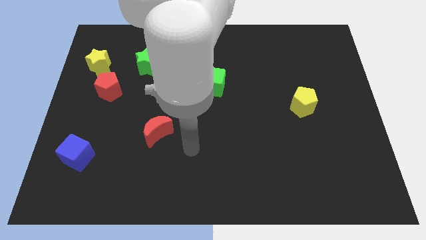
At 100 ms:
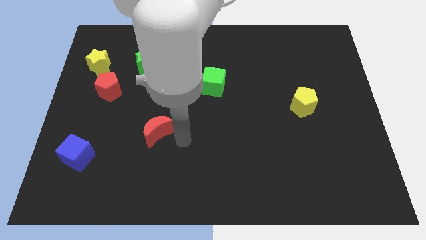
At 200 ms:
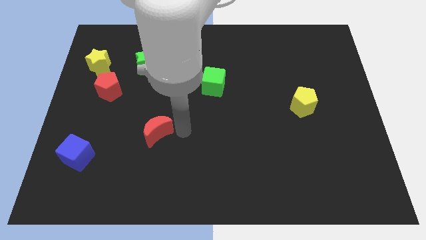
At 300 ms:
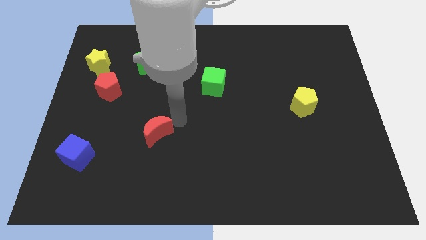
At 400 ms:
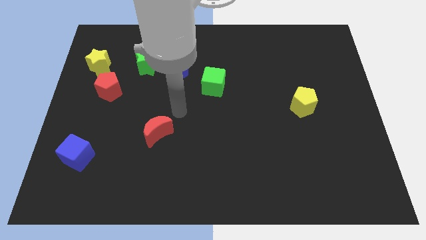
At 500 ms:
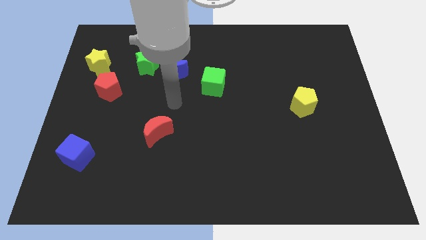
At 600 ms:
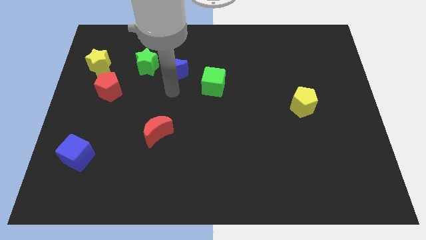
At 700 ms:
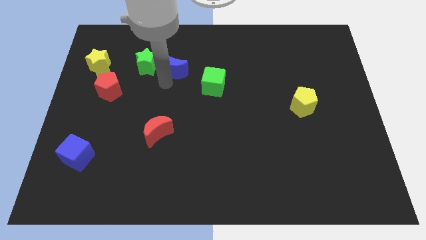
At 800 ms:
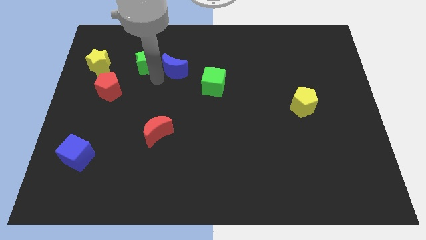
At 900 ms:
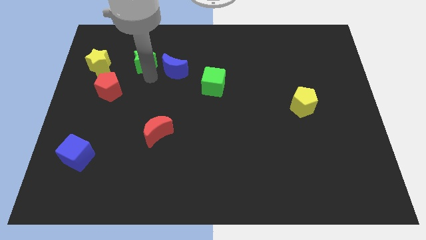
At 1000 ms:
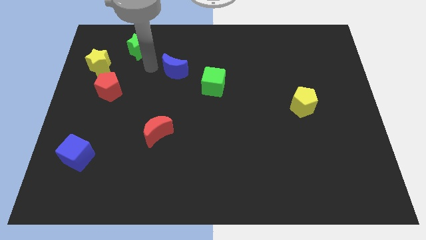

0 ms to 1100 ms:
separate the blue moon from the green star

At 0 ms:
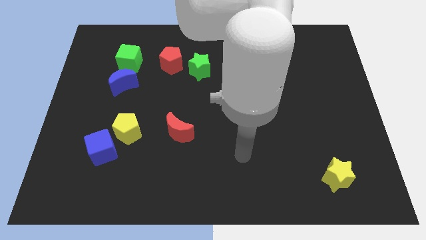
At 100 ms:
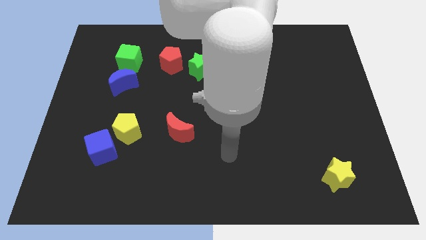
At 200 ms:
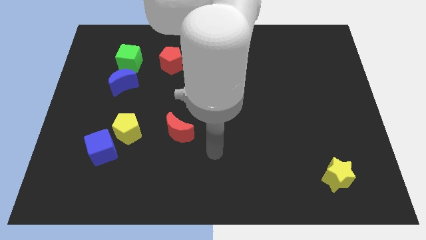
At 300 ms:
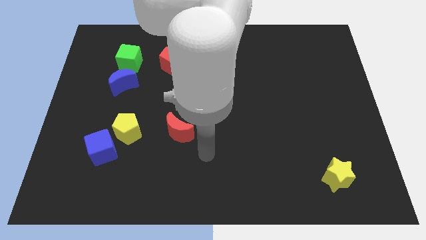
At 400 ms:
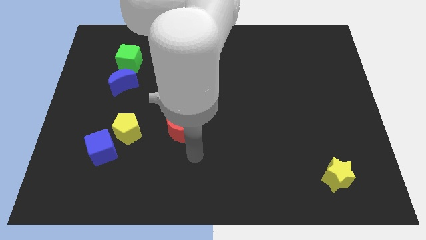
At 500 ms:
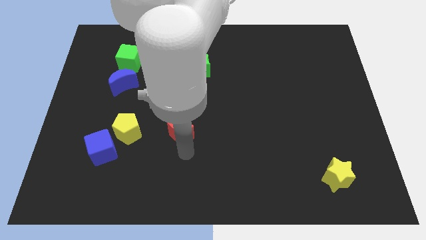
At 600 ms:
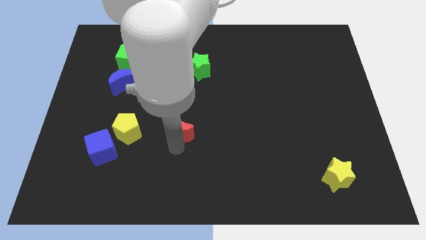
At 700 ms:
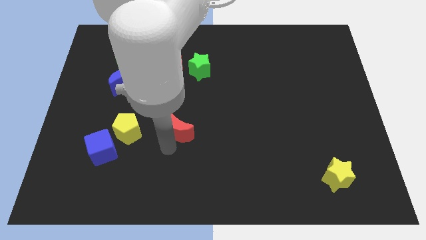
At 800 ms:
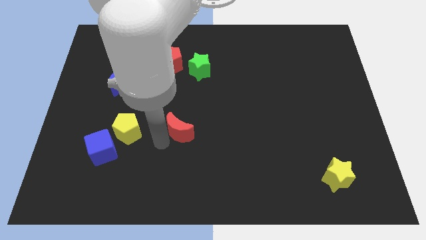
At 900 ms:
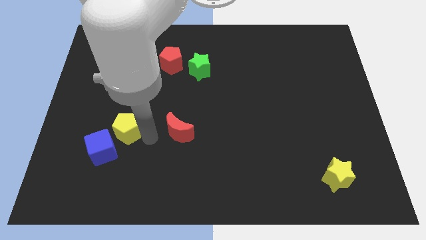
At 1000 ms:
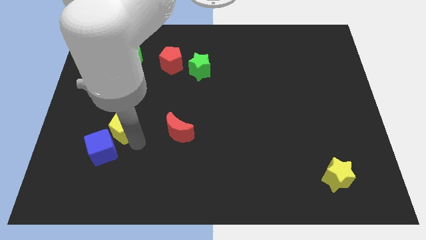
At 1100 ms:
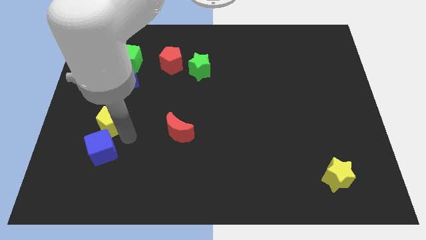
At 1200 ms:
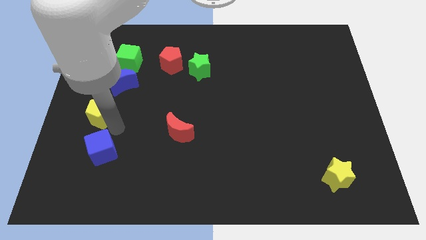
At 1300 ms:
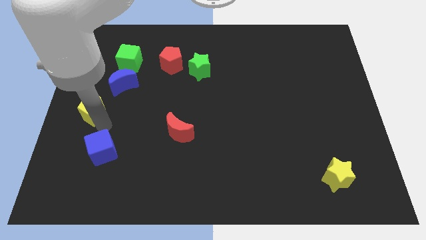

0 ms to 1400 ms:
move the blue cube away from the yellow pentagon

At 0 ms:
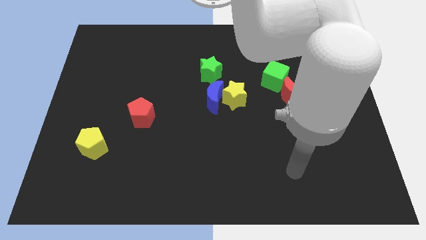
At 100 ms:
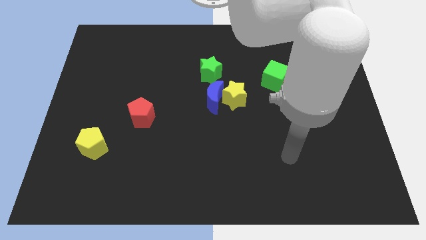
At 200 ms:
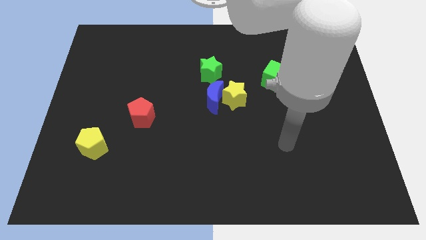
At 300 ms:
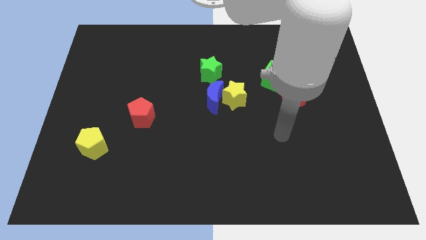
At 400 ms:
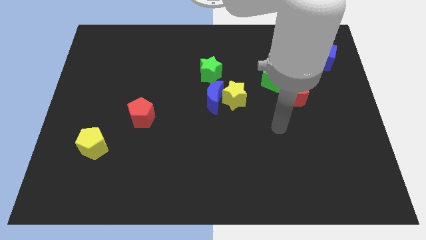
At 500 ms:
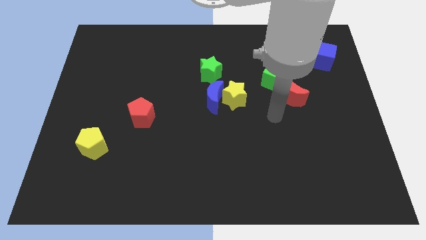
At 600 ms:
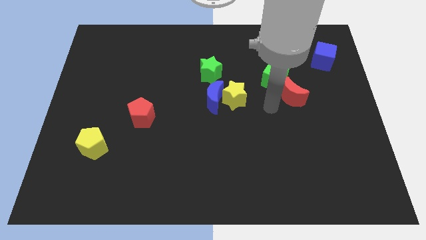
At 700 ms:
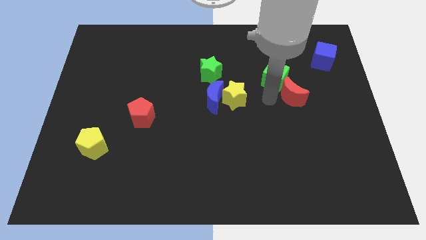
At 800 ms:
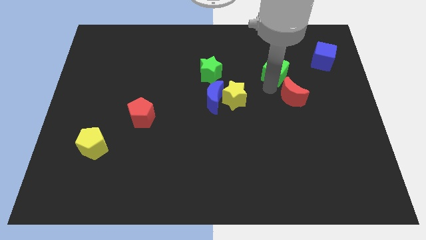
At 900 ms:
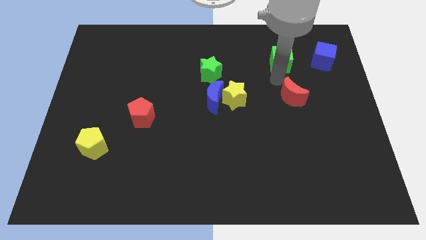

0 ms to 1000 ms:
pull the red moon apart from the green cube

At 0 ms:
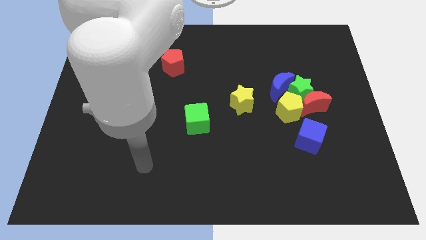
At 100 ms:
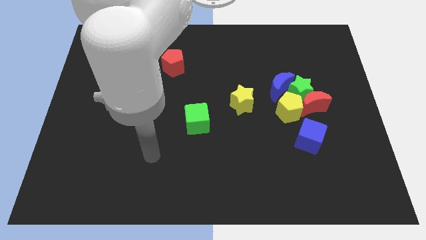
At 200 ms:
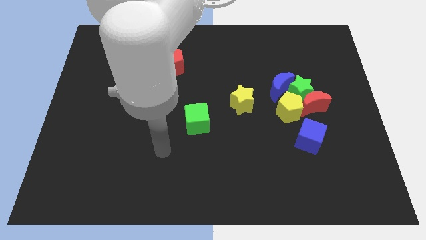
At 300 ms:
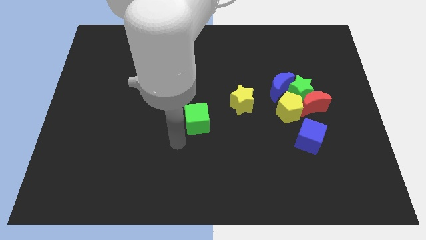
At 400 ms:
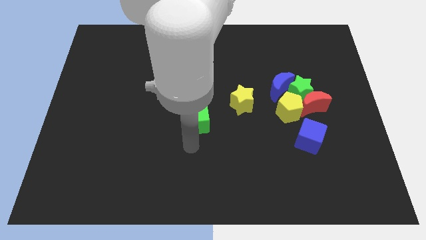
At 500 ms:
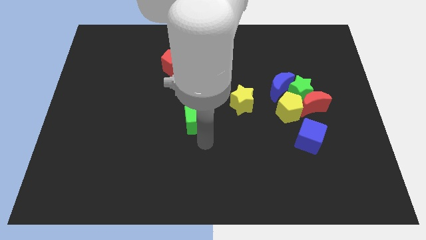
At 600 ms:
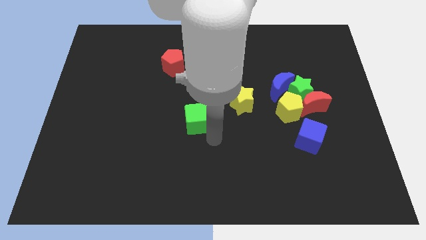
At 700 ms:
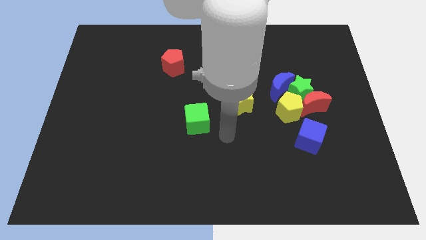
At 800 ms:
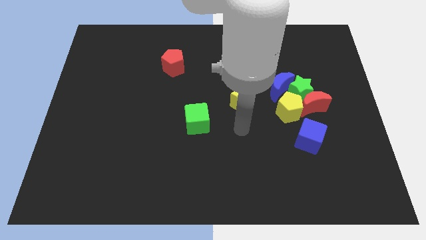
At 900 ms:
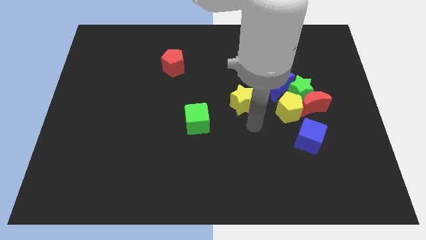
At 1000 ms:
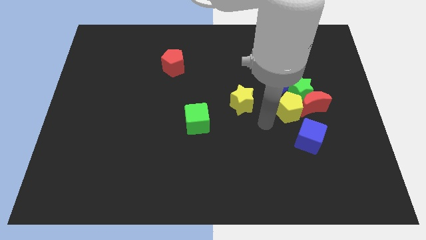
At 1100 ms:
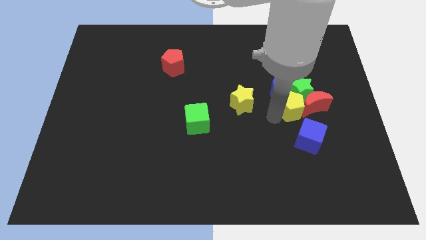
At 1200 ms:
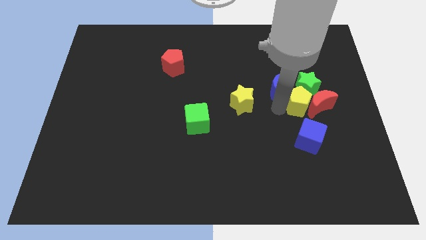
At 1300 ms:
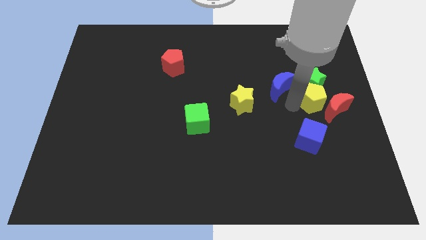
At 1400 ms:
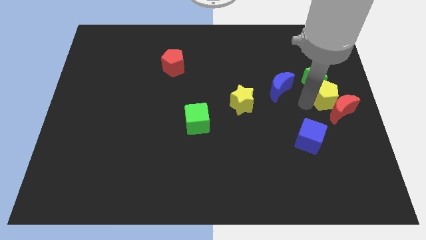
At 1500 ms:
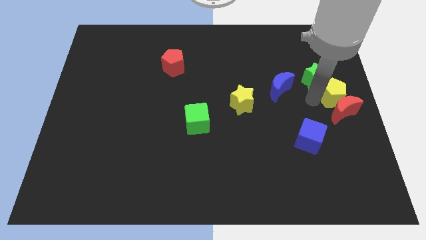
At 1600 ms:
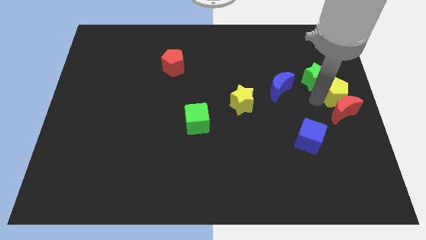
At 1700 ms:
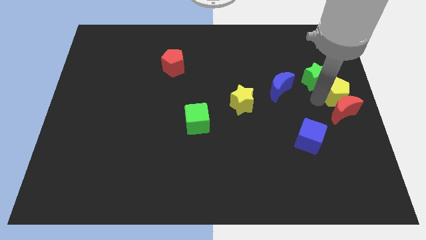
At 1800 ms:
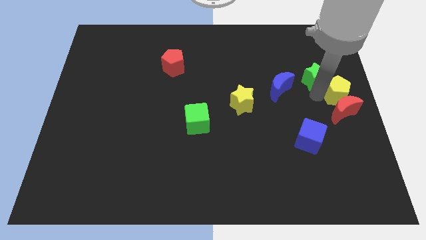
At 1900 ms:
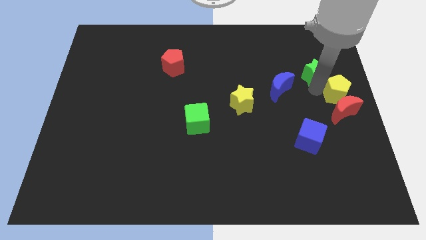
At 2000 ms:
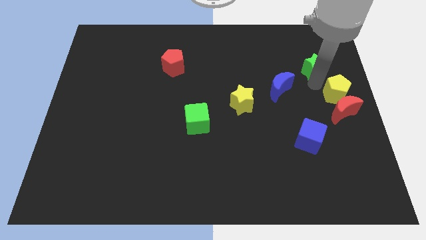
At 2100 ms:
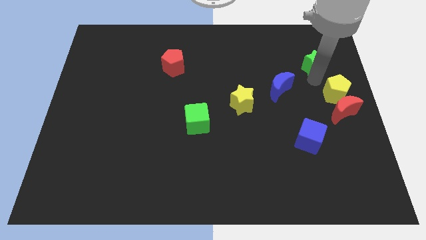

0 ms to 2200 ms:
move the green star away from the red moon, blue moon, and yellow pentagon

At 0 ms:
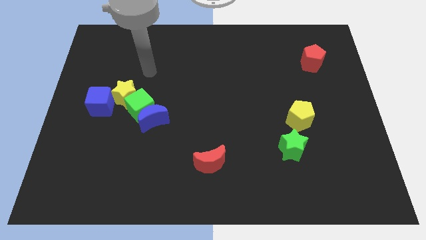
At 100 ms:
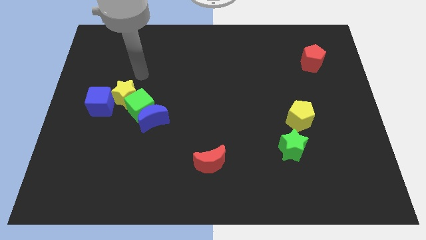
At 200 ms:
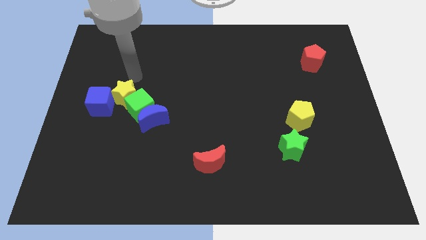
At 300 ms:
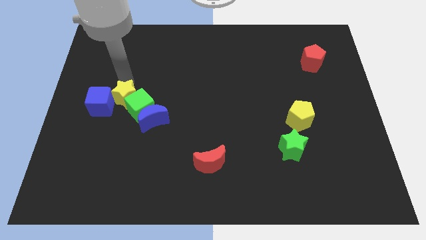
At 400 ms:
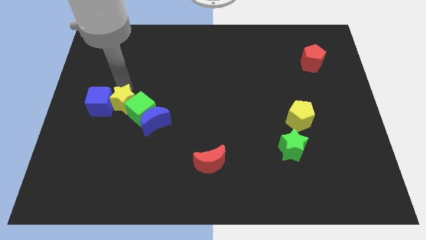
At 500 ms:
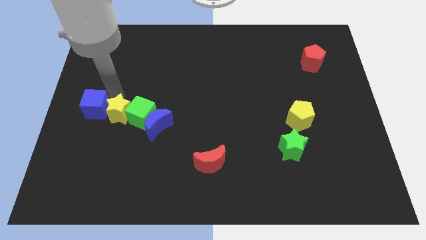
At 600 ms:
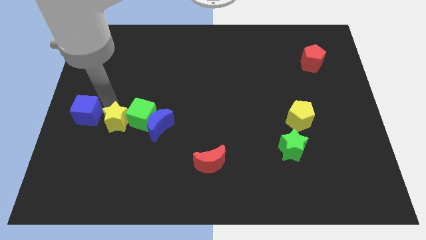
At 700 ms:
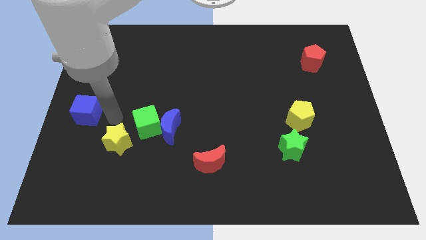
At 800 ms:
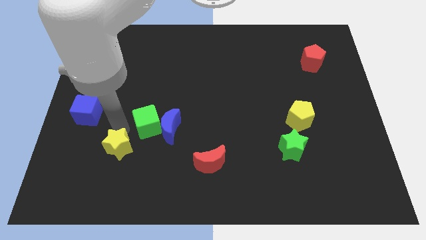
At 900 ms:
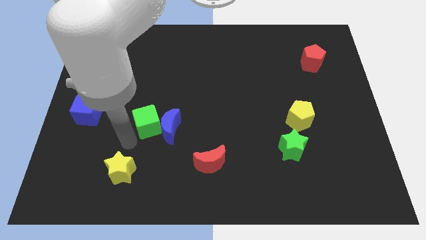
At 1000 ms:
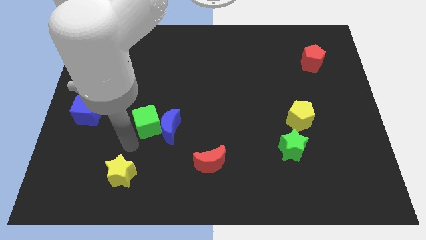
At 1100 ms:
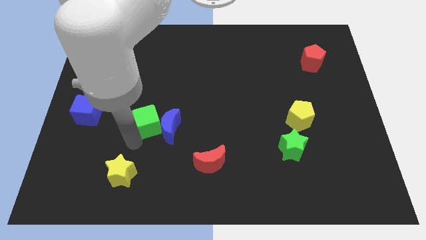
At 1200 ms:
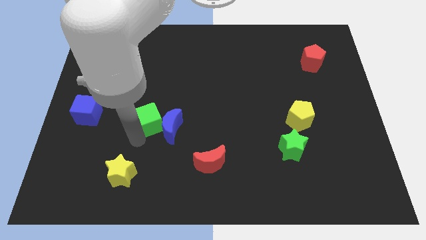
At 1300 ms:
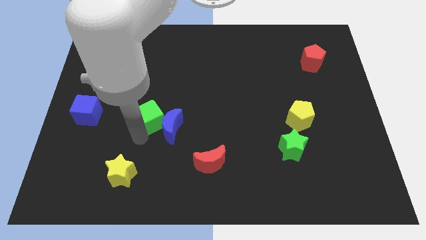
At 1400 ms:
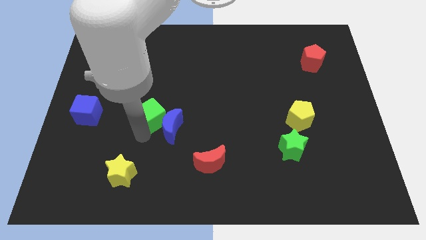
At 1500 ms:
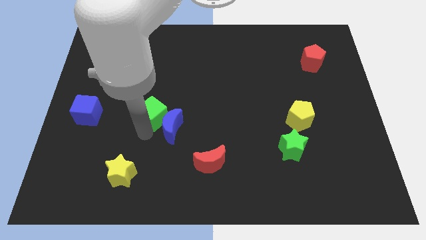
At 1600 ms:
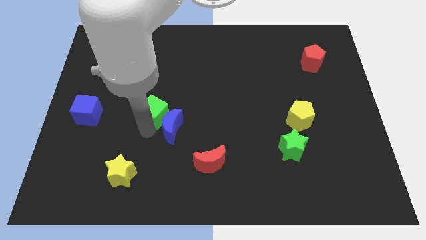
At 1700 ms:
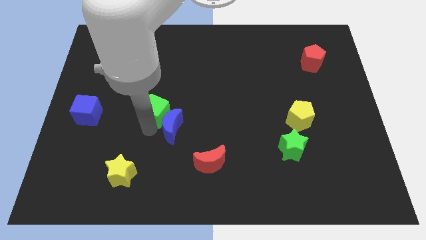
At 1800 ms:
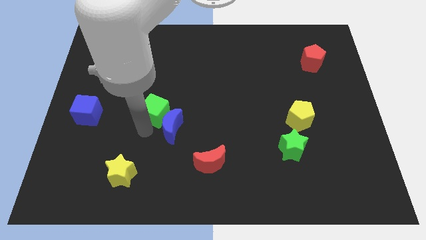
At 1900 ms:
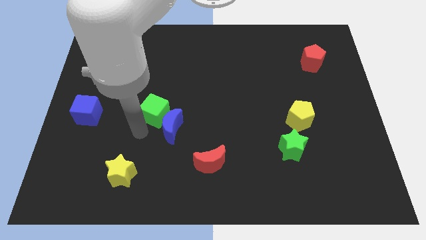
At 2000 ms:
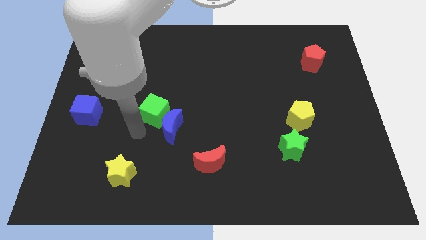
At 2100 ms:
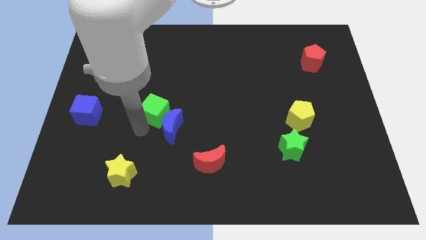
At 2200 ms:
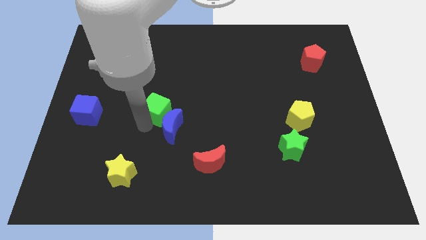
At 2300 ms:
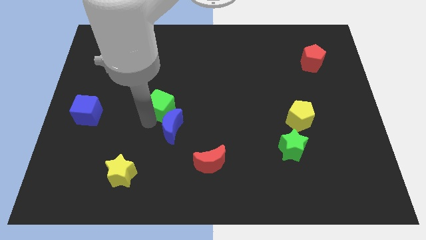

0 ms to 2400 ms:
separate the green cube from the blue moon, yellow star, and blue cube

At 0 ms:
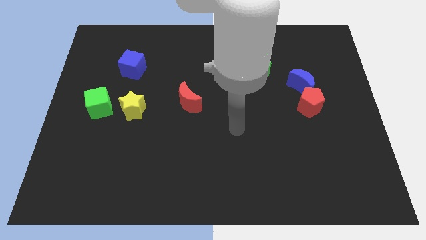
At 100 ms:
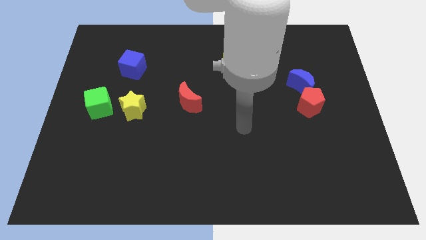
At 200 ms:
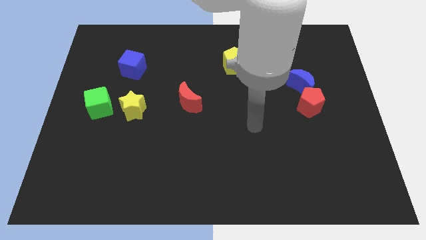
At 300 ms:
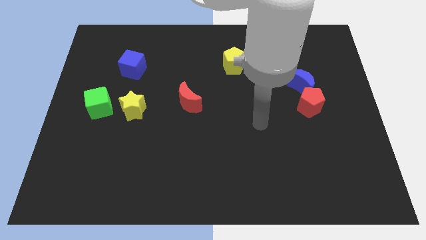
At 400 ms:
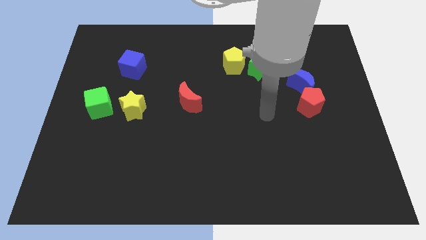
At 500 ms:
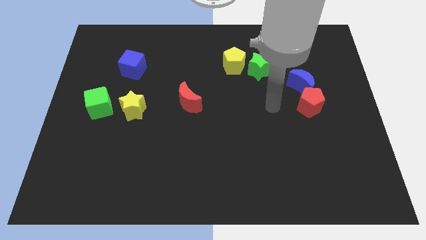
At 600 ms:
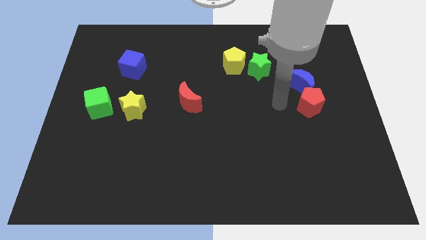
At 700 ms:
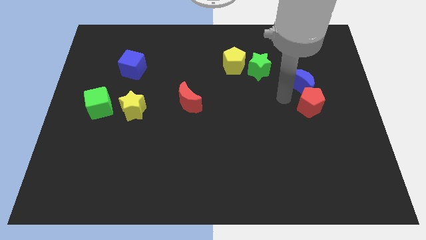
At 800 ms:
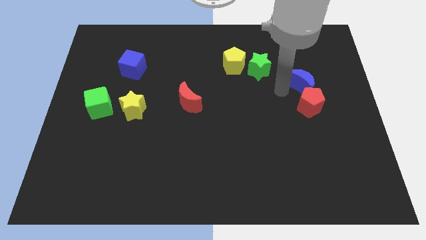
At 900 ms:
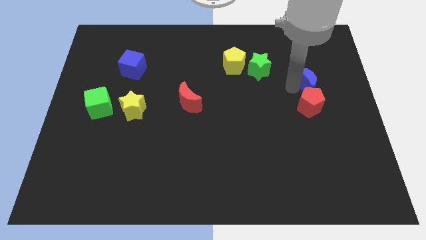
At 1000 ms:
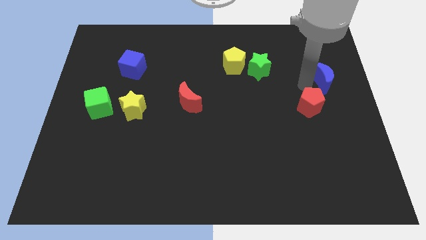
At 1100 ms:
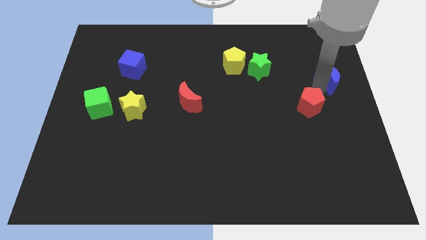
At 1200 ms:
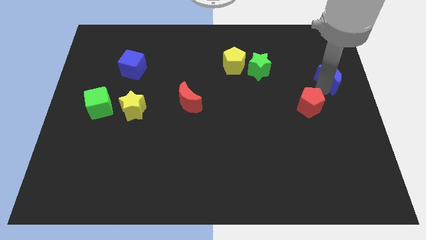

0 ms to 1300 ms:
move the red pentagon away from the blue moon
